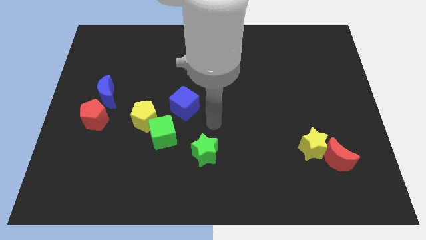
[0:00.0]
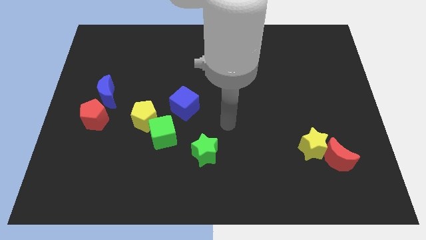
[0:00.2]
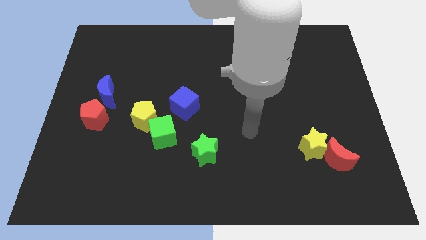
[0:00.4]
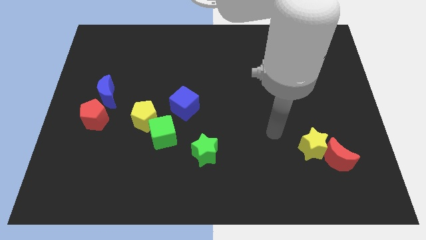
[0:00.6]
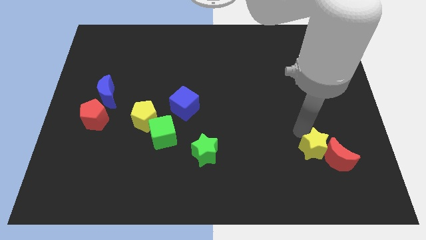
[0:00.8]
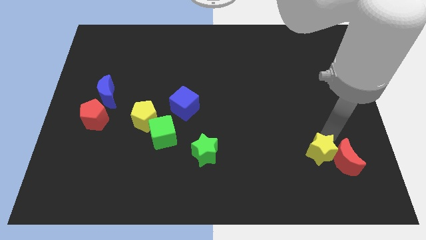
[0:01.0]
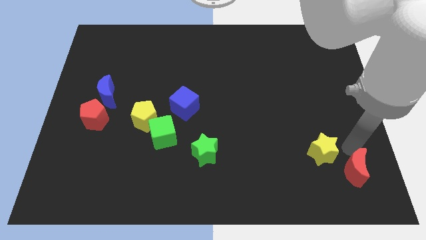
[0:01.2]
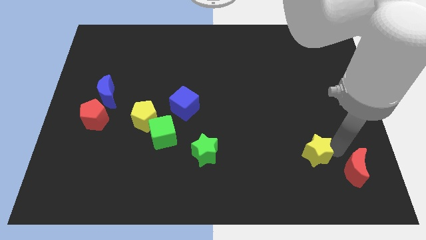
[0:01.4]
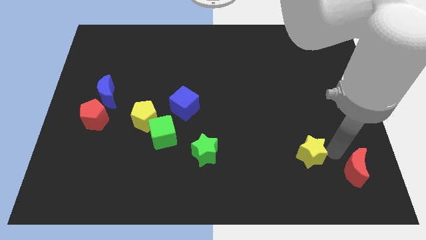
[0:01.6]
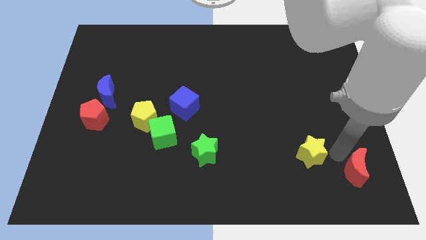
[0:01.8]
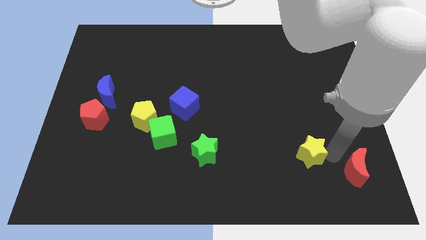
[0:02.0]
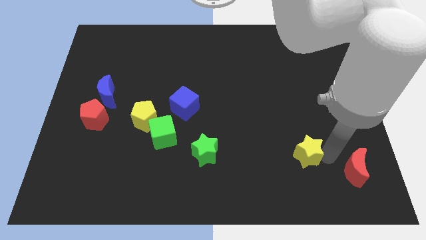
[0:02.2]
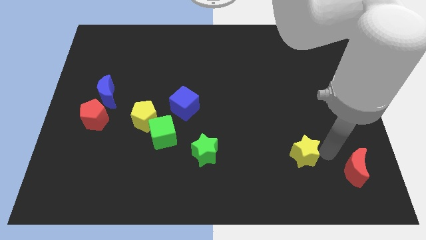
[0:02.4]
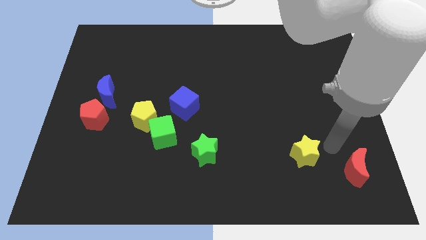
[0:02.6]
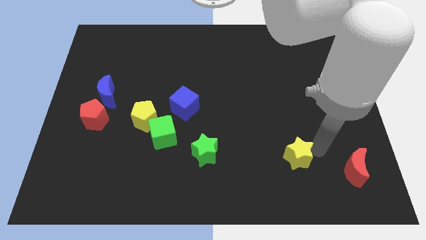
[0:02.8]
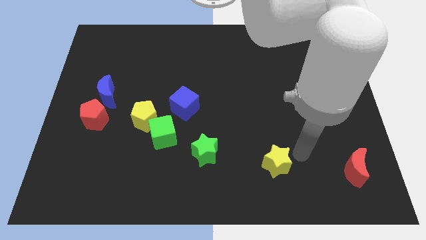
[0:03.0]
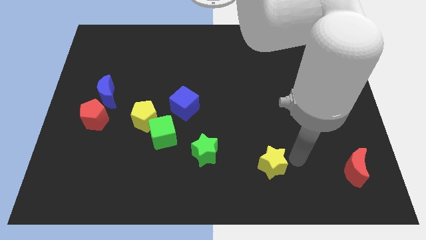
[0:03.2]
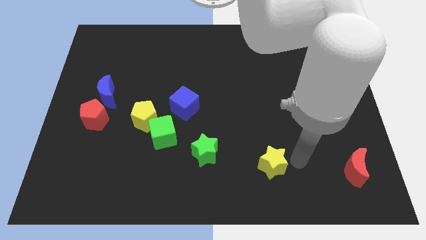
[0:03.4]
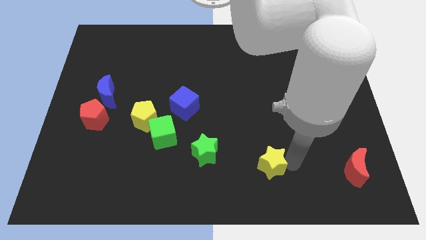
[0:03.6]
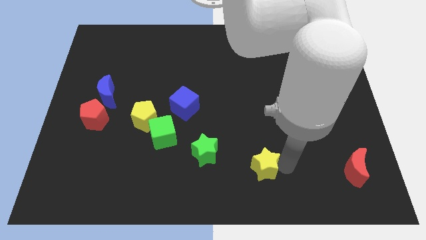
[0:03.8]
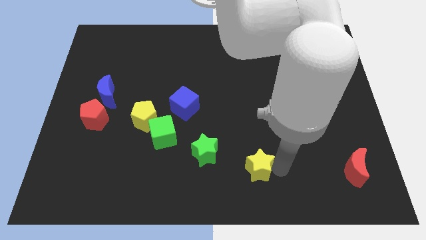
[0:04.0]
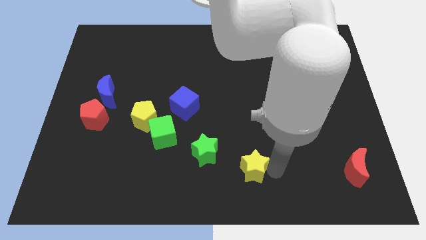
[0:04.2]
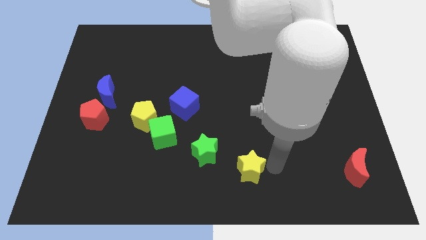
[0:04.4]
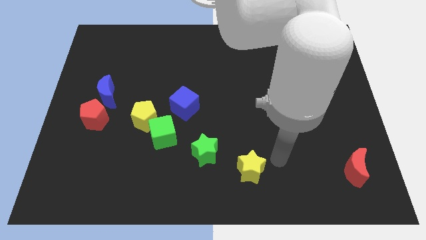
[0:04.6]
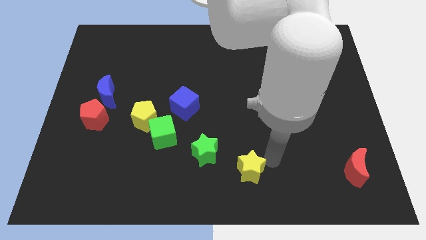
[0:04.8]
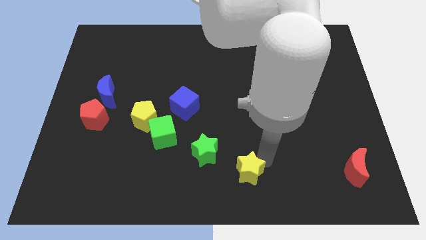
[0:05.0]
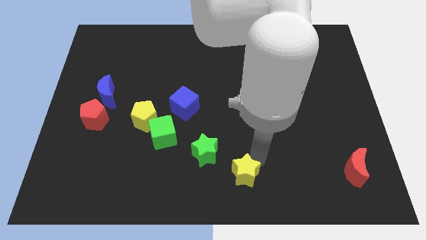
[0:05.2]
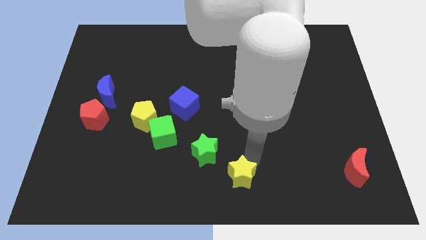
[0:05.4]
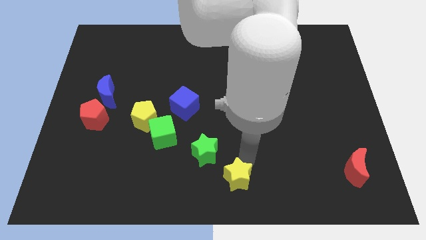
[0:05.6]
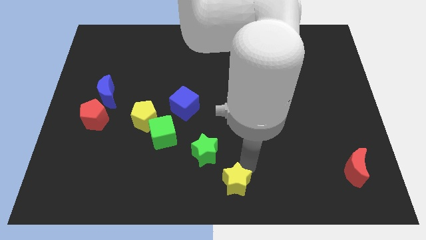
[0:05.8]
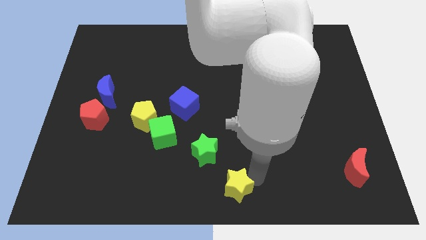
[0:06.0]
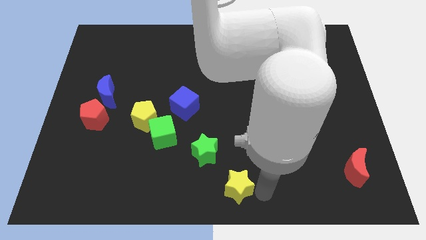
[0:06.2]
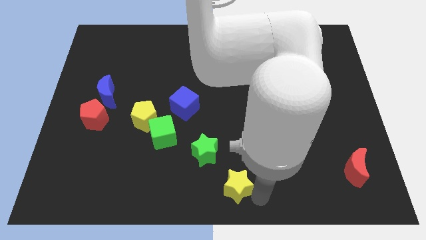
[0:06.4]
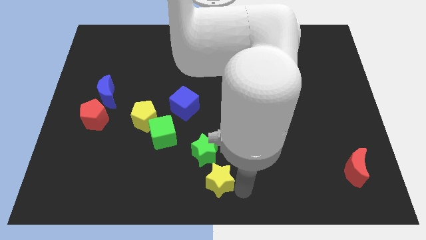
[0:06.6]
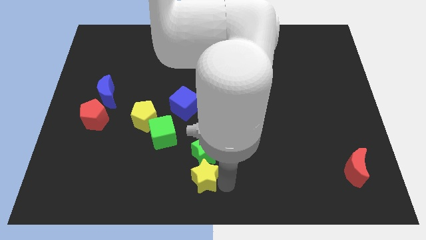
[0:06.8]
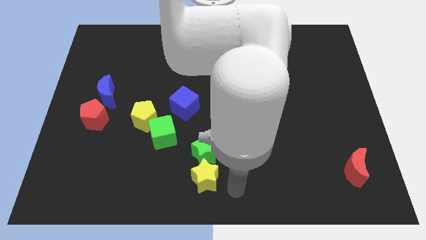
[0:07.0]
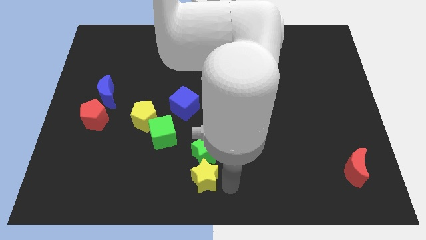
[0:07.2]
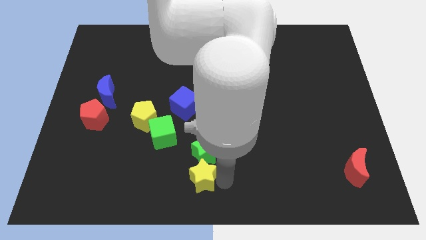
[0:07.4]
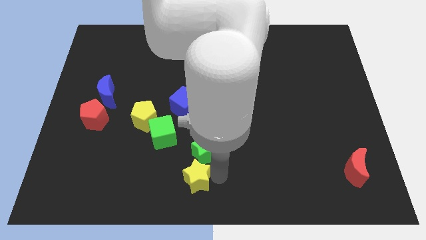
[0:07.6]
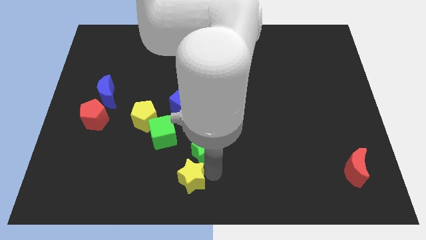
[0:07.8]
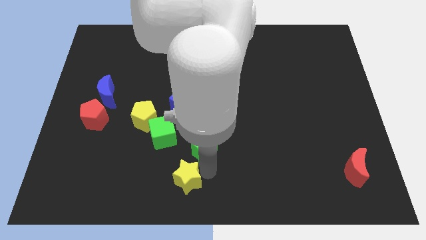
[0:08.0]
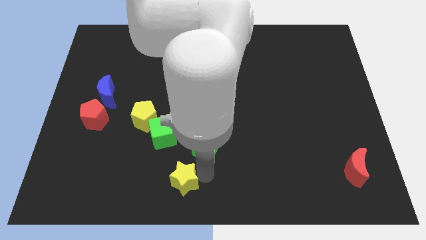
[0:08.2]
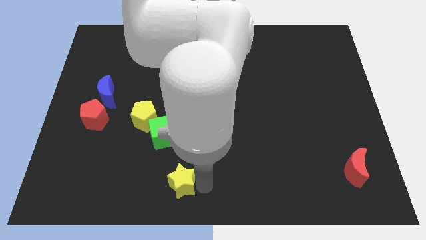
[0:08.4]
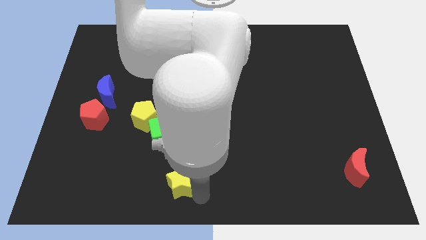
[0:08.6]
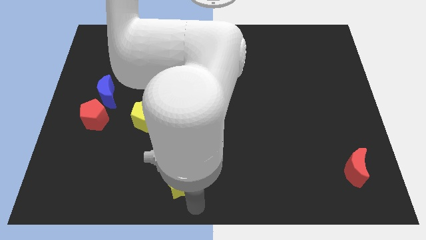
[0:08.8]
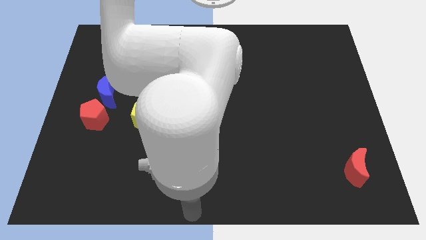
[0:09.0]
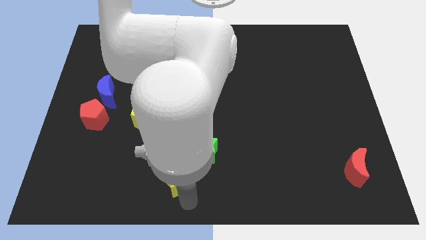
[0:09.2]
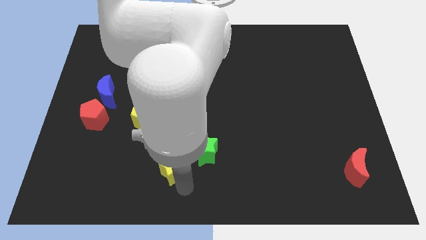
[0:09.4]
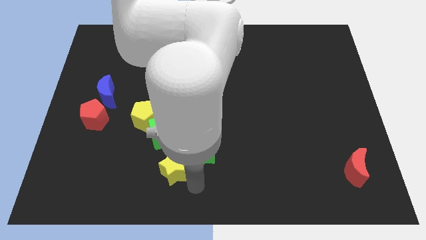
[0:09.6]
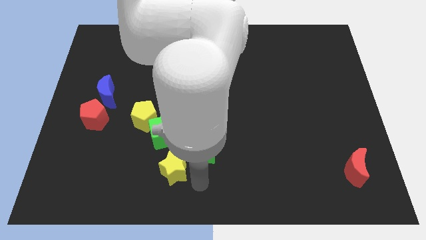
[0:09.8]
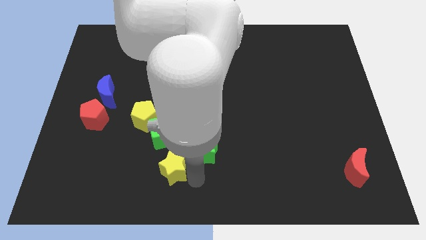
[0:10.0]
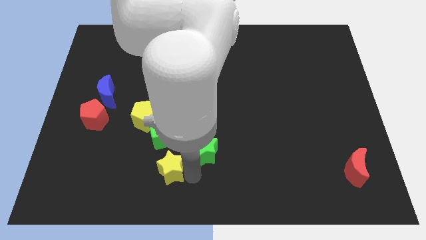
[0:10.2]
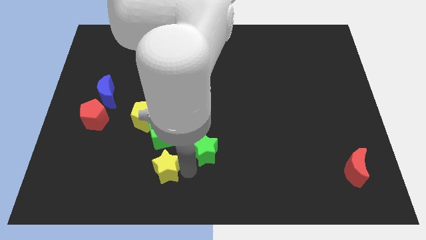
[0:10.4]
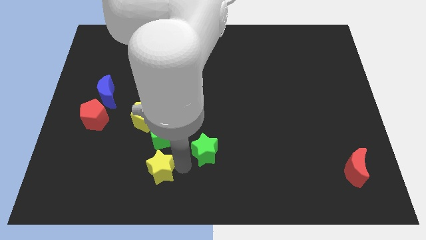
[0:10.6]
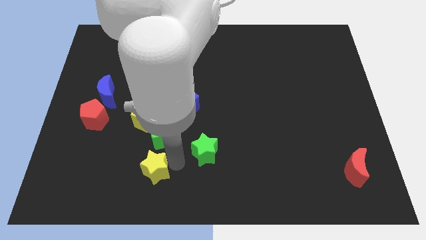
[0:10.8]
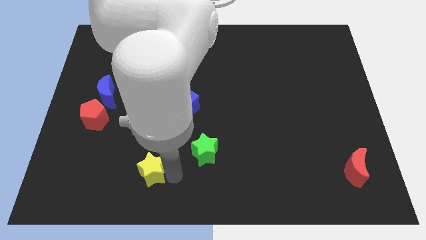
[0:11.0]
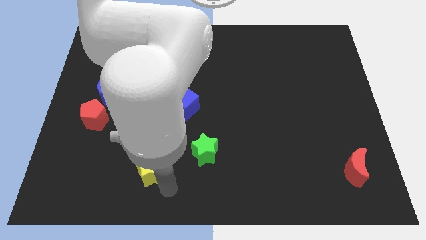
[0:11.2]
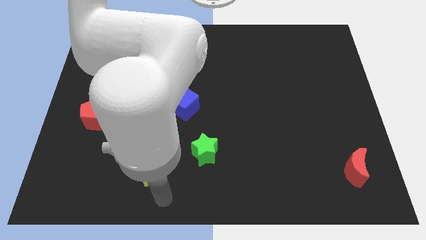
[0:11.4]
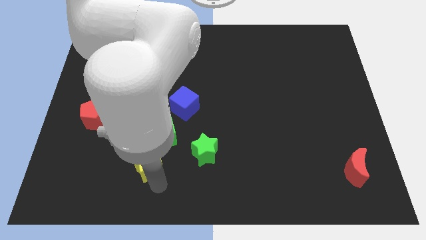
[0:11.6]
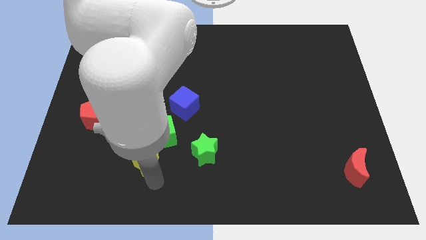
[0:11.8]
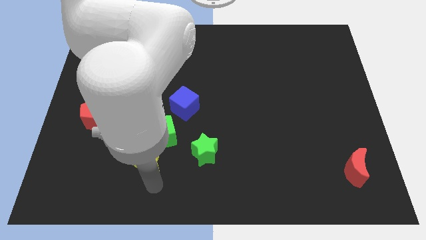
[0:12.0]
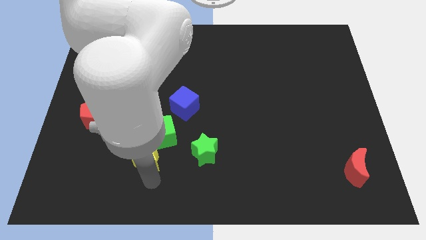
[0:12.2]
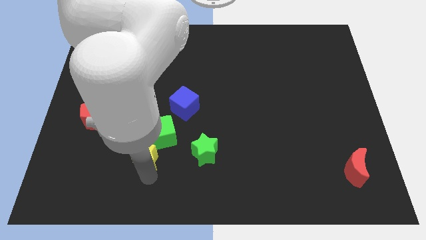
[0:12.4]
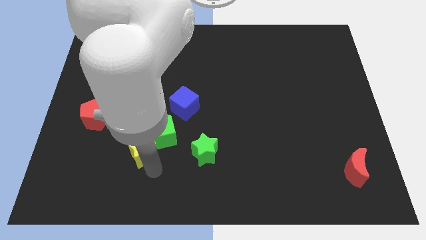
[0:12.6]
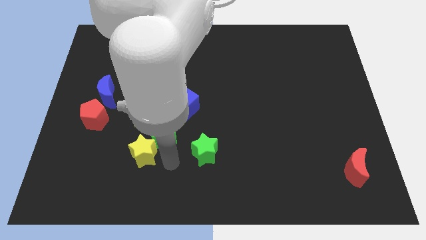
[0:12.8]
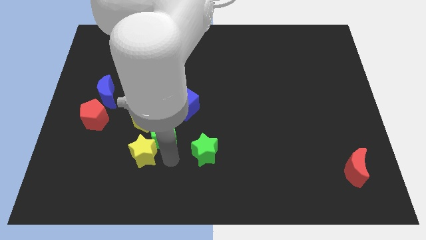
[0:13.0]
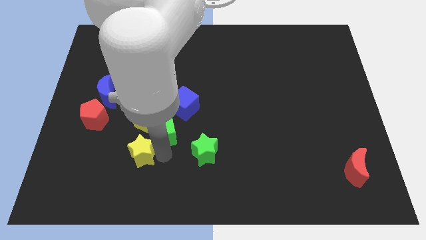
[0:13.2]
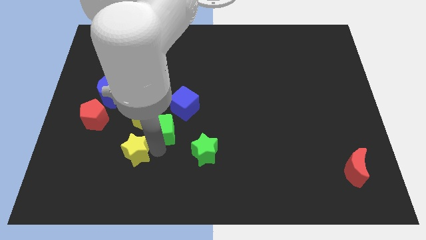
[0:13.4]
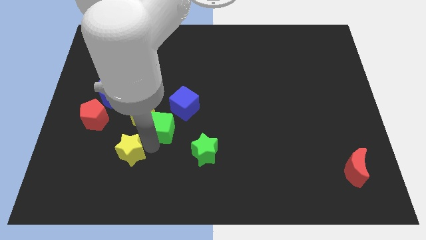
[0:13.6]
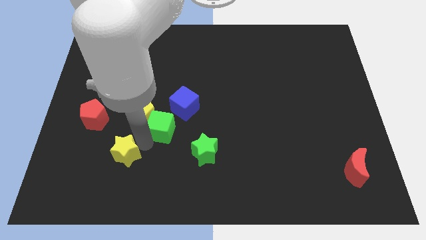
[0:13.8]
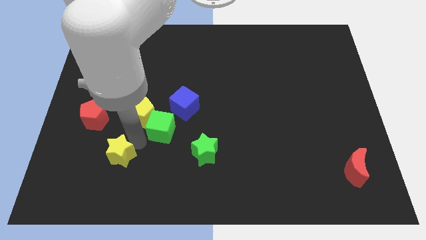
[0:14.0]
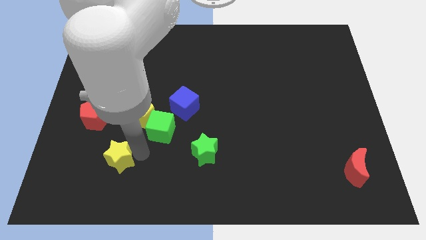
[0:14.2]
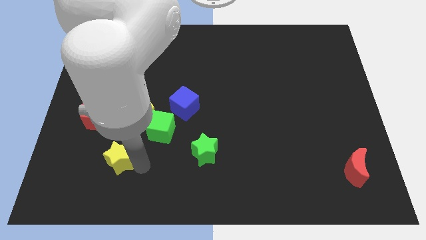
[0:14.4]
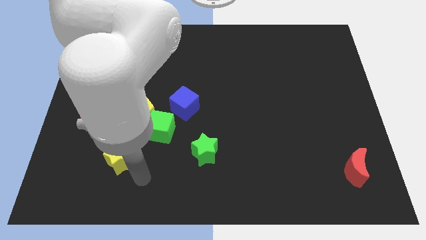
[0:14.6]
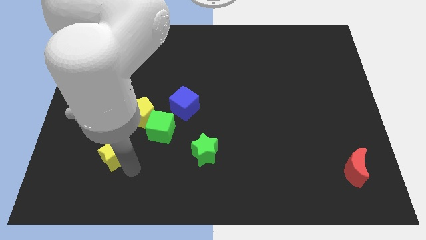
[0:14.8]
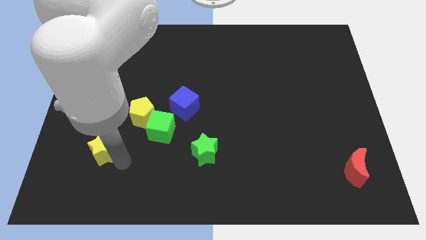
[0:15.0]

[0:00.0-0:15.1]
put the yellow star to the bottom of the blue moon

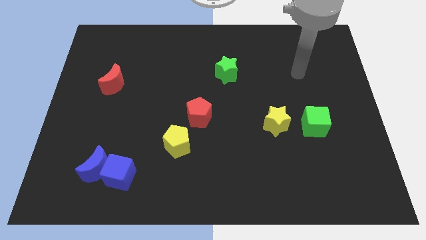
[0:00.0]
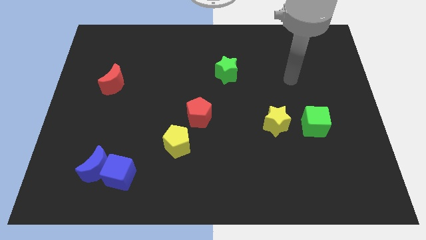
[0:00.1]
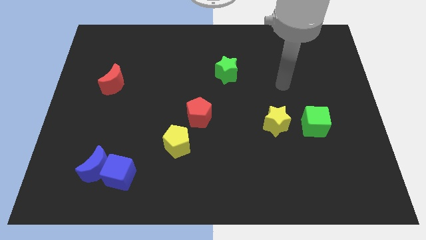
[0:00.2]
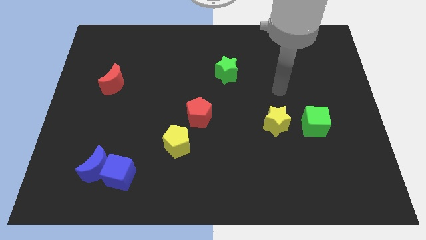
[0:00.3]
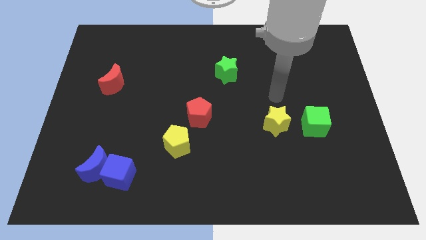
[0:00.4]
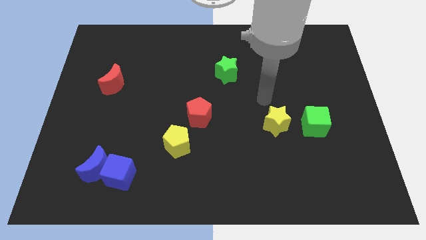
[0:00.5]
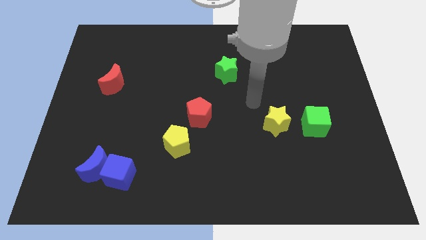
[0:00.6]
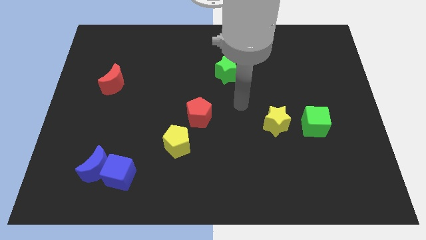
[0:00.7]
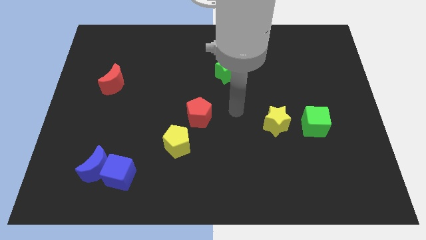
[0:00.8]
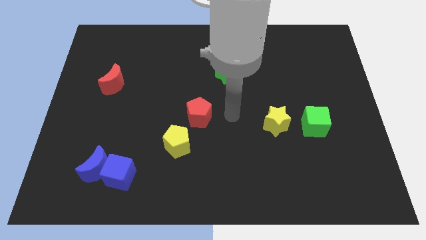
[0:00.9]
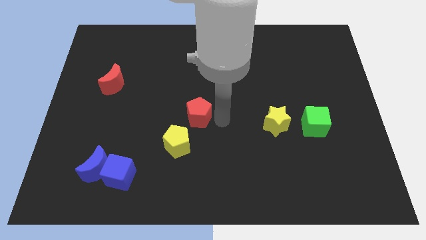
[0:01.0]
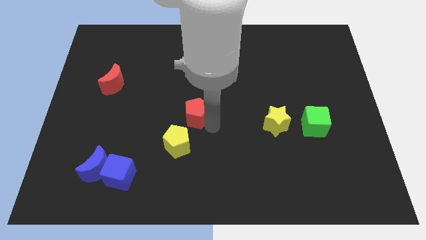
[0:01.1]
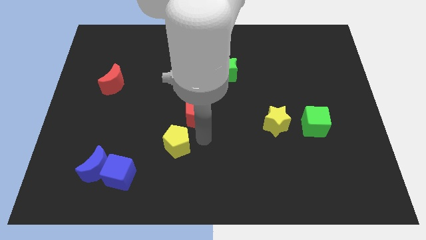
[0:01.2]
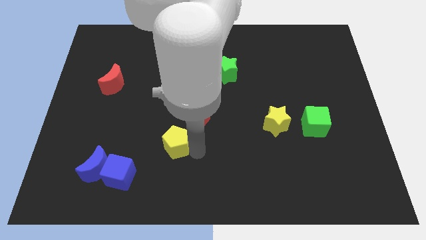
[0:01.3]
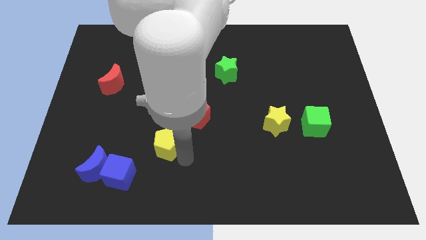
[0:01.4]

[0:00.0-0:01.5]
move the blue cube to the bottom left of the yellow pentagon
